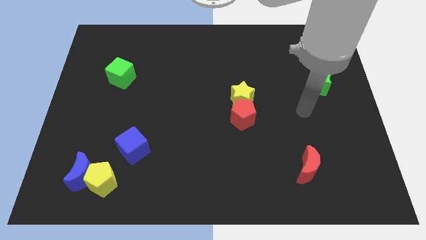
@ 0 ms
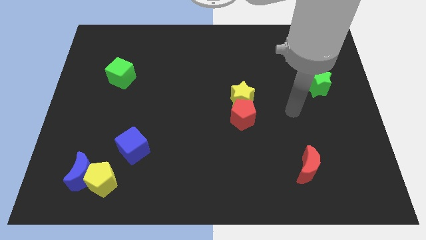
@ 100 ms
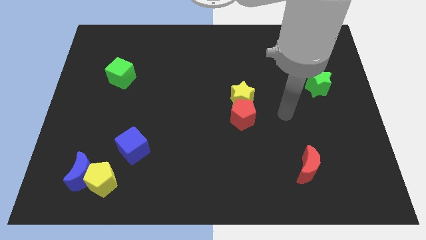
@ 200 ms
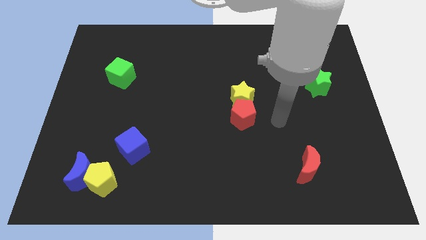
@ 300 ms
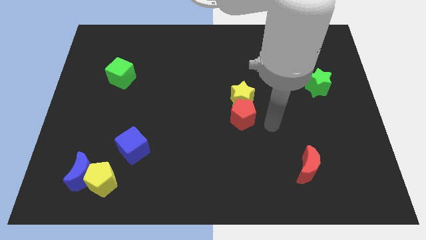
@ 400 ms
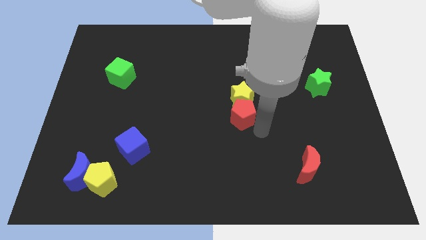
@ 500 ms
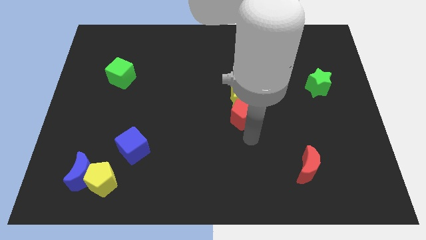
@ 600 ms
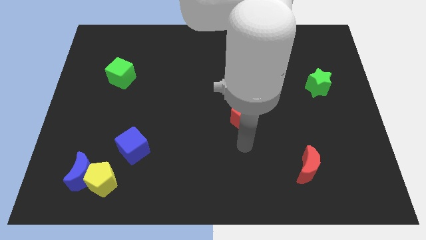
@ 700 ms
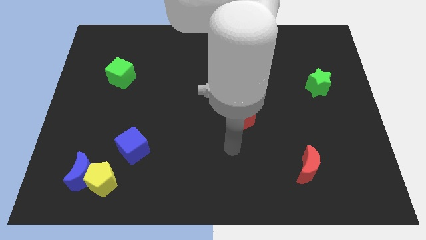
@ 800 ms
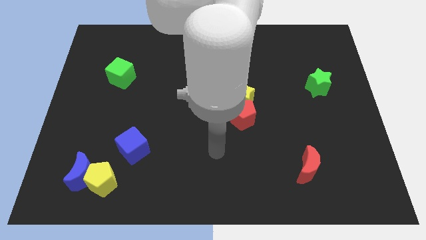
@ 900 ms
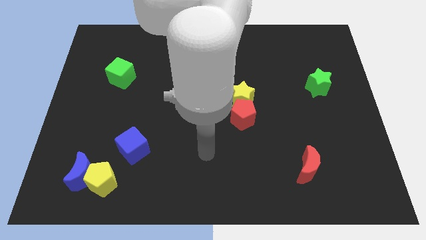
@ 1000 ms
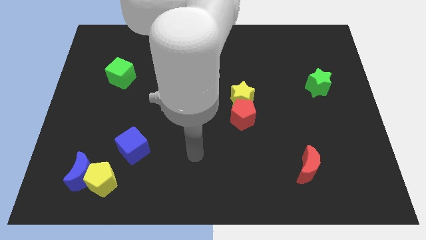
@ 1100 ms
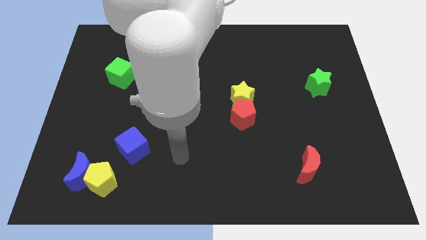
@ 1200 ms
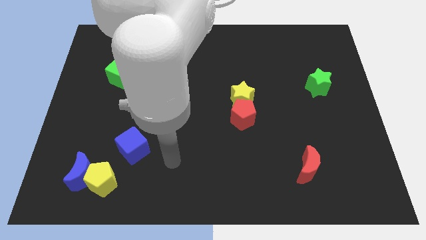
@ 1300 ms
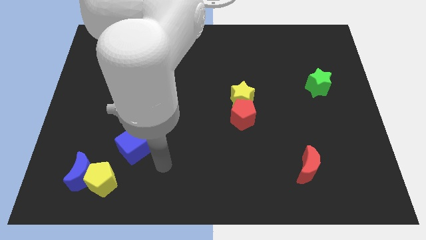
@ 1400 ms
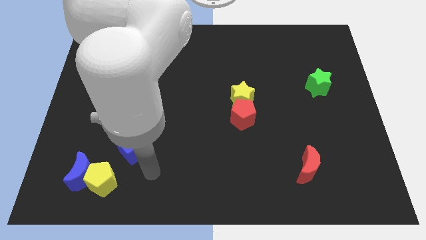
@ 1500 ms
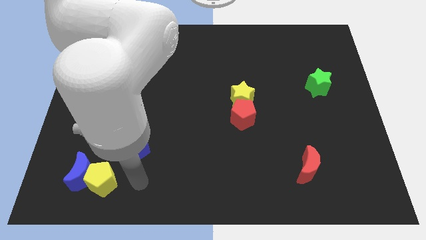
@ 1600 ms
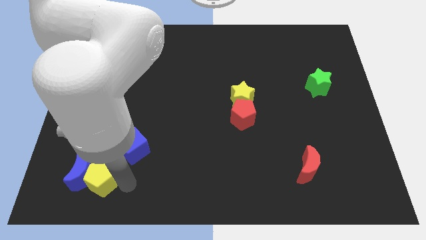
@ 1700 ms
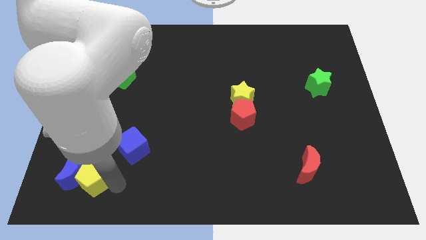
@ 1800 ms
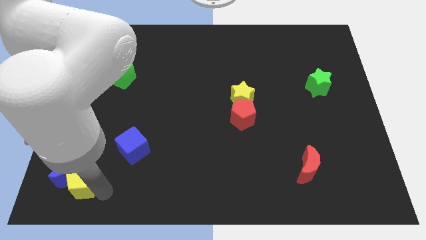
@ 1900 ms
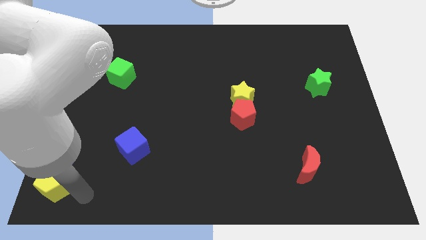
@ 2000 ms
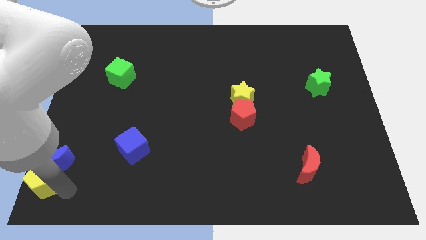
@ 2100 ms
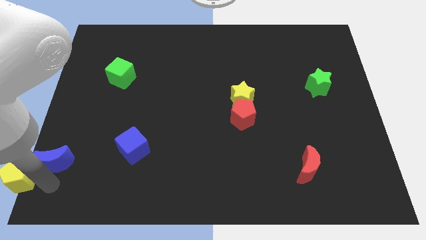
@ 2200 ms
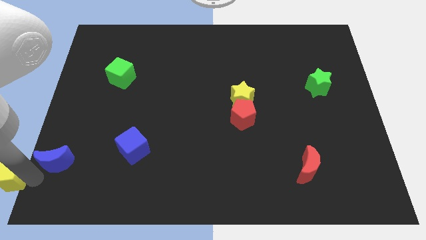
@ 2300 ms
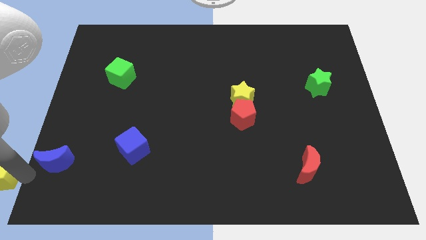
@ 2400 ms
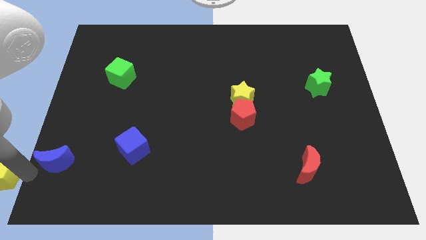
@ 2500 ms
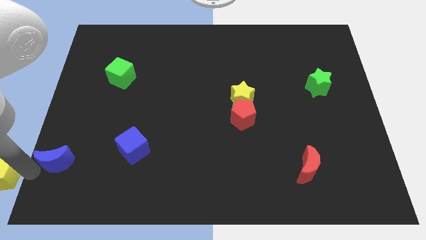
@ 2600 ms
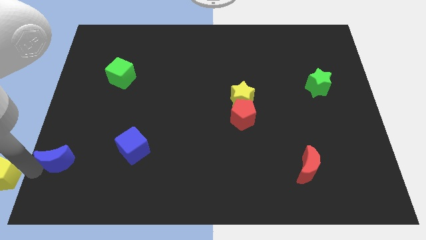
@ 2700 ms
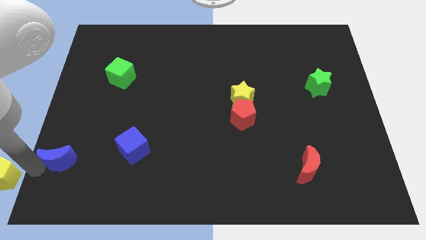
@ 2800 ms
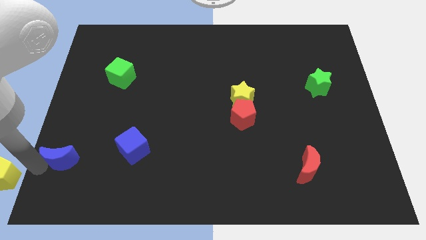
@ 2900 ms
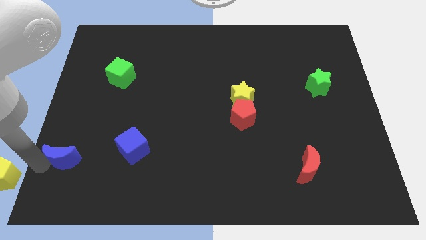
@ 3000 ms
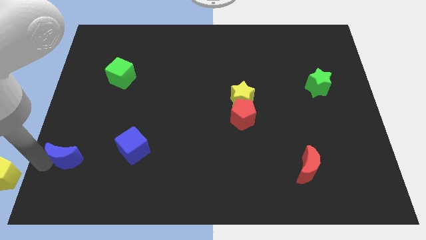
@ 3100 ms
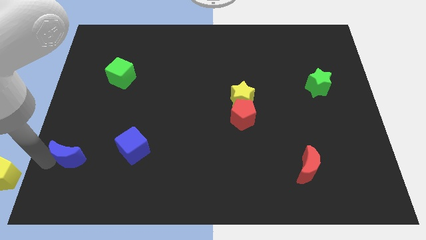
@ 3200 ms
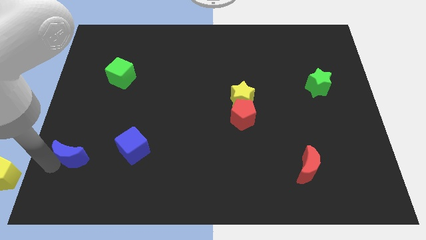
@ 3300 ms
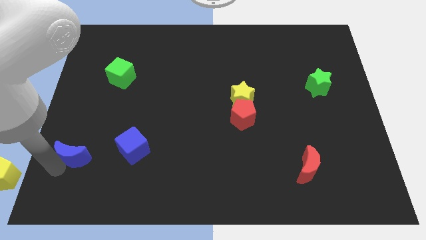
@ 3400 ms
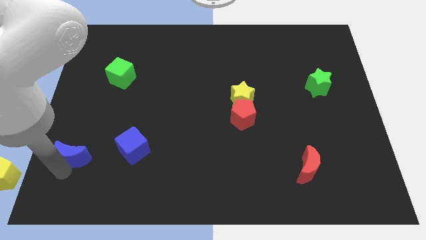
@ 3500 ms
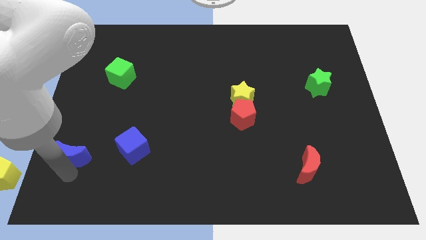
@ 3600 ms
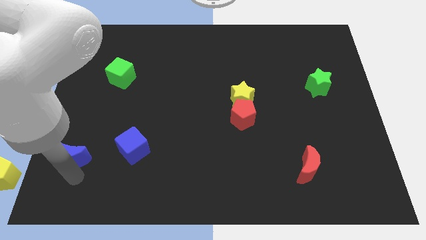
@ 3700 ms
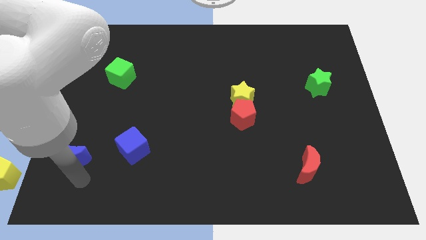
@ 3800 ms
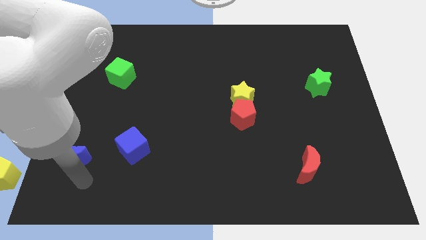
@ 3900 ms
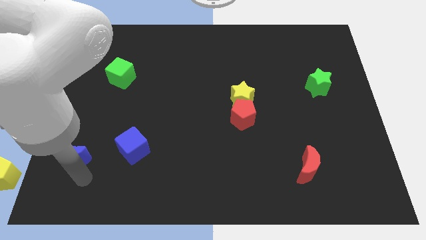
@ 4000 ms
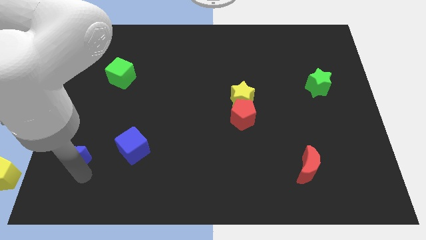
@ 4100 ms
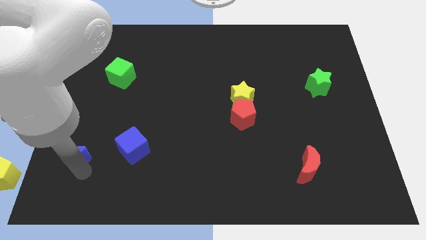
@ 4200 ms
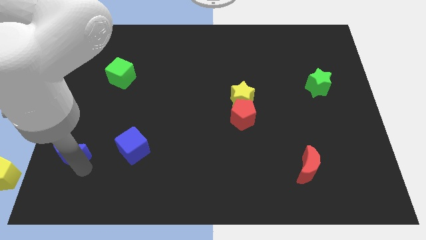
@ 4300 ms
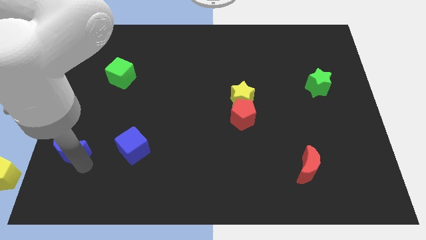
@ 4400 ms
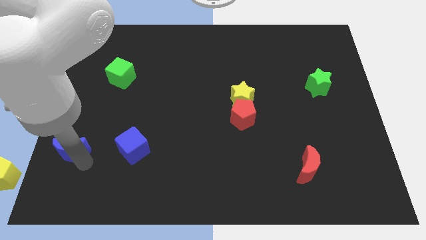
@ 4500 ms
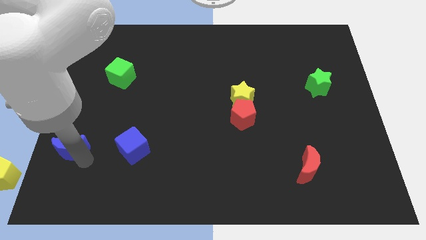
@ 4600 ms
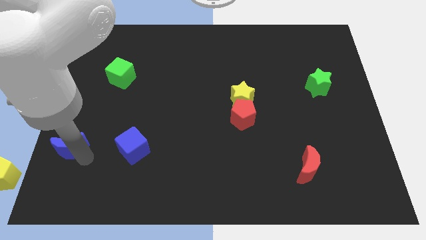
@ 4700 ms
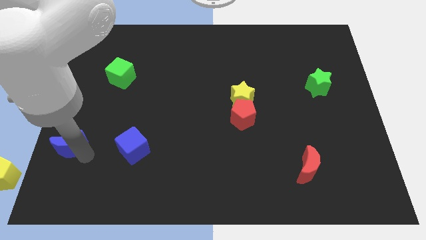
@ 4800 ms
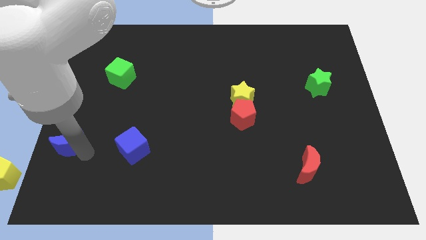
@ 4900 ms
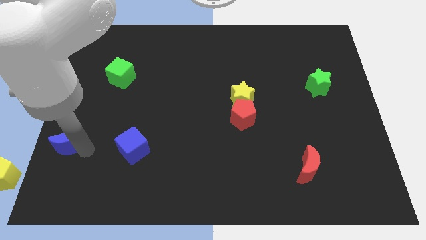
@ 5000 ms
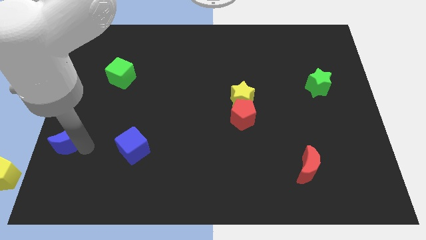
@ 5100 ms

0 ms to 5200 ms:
put the blue moon to the left side

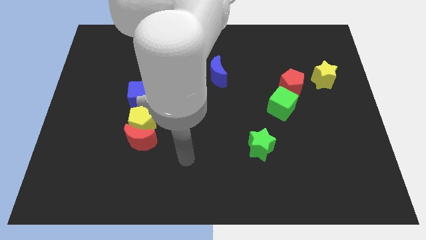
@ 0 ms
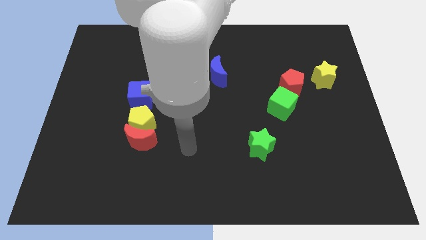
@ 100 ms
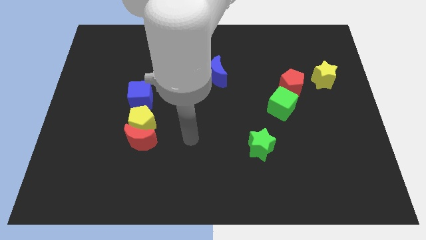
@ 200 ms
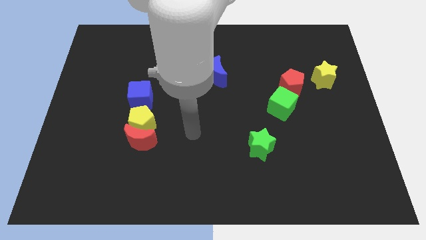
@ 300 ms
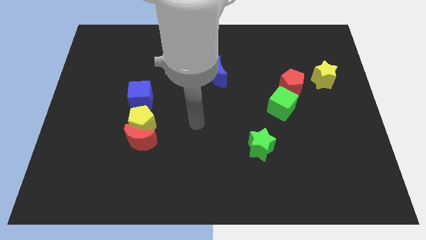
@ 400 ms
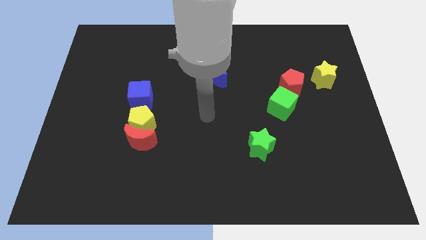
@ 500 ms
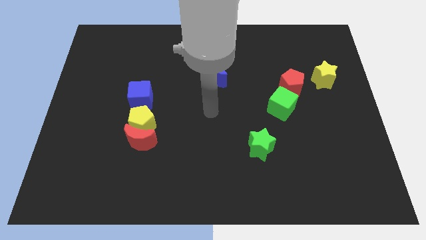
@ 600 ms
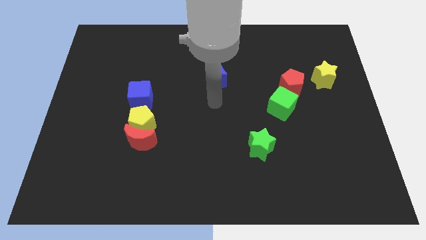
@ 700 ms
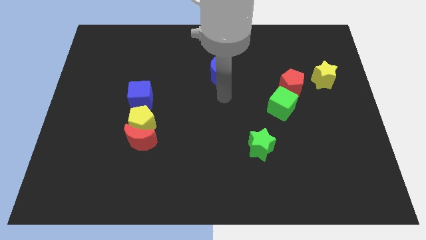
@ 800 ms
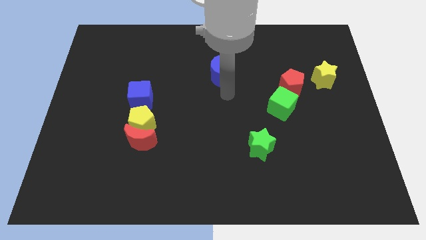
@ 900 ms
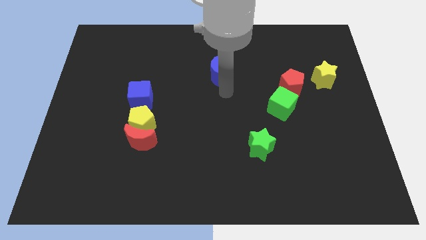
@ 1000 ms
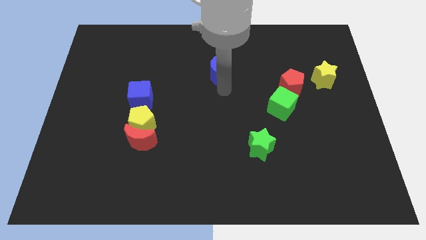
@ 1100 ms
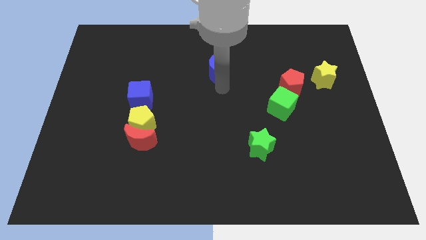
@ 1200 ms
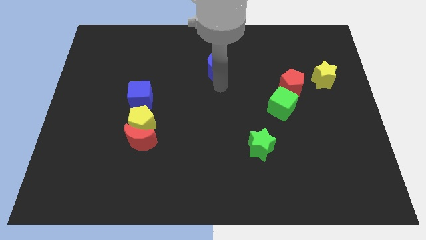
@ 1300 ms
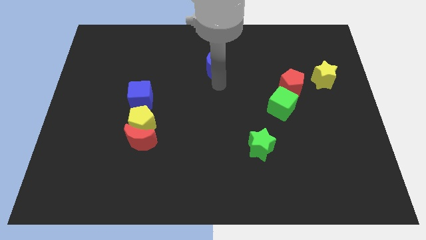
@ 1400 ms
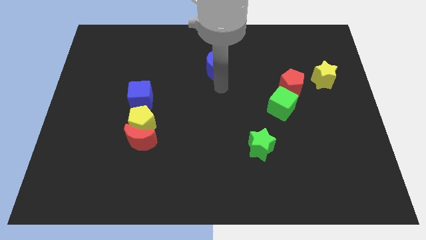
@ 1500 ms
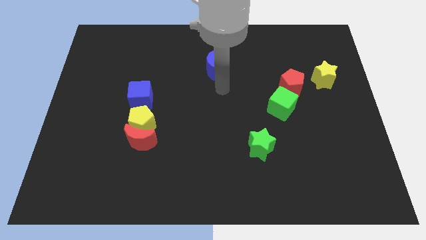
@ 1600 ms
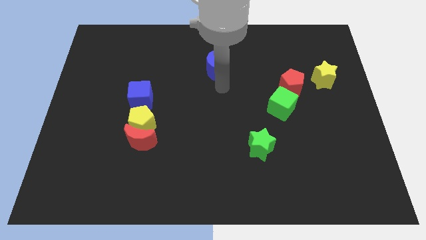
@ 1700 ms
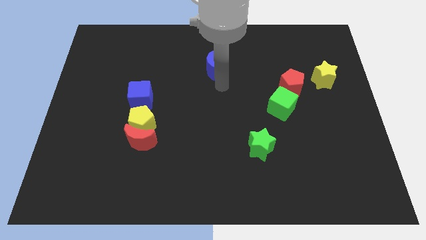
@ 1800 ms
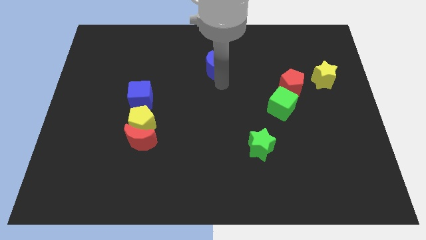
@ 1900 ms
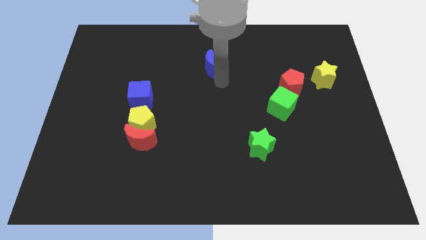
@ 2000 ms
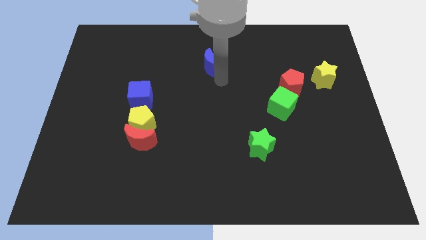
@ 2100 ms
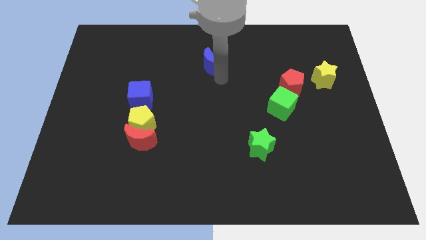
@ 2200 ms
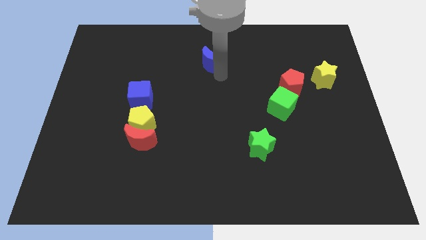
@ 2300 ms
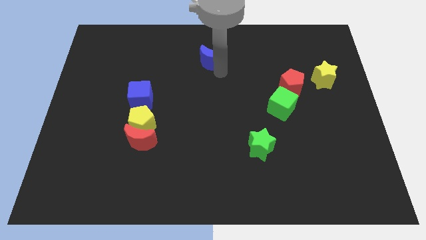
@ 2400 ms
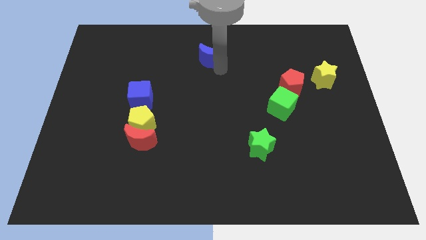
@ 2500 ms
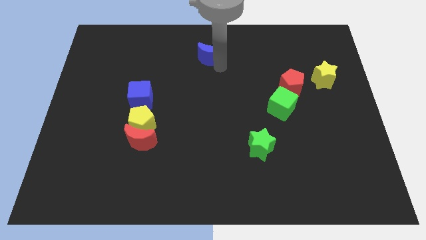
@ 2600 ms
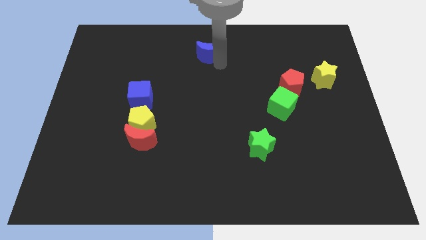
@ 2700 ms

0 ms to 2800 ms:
push the blue moon to the top side
